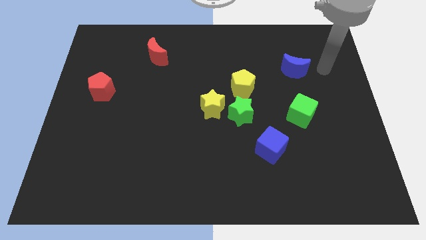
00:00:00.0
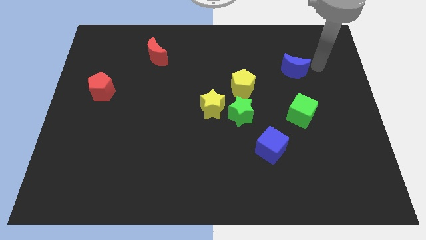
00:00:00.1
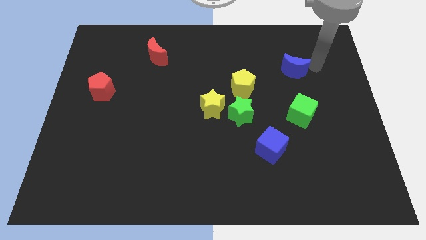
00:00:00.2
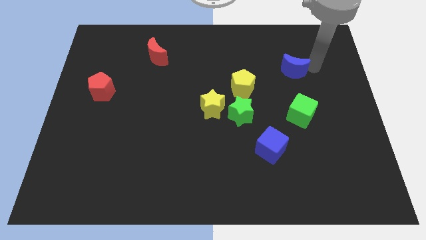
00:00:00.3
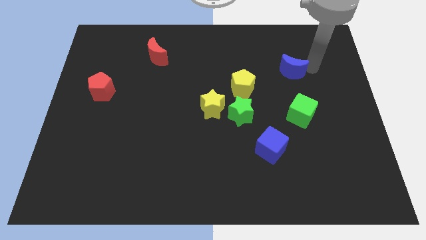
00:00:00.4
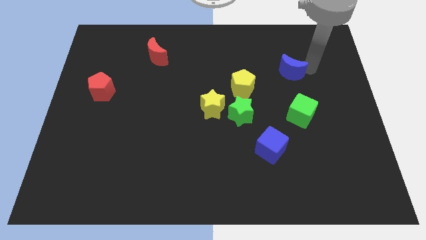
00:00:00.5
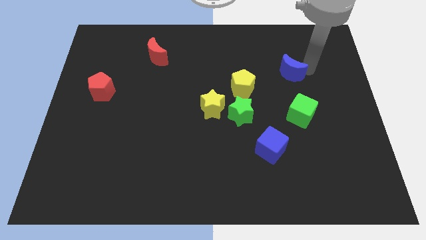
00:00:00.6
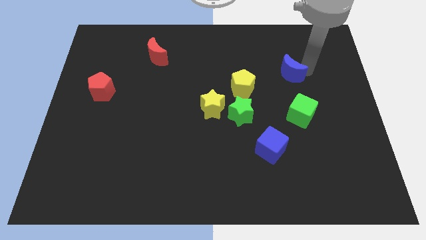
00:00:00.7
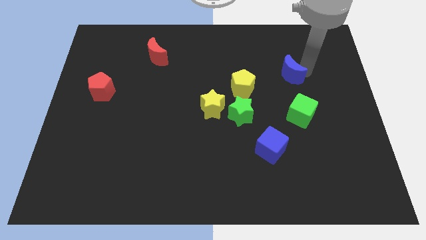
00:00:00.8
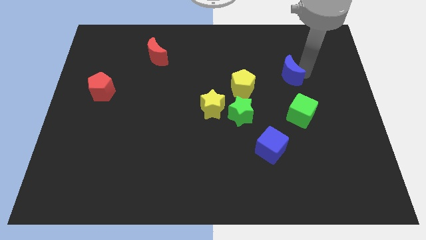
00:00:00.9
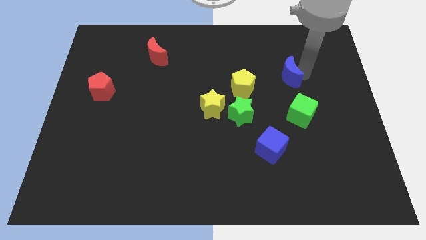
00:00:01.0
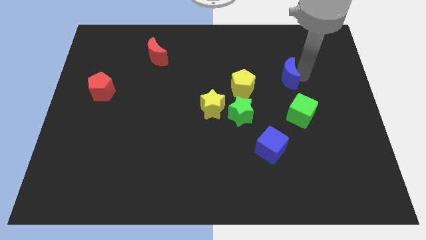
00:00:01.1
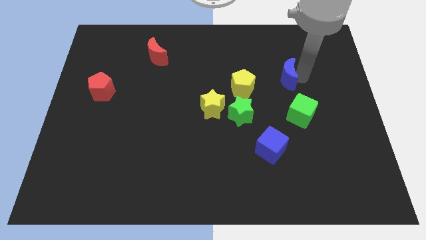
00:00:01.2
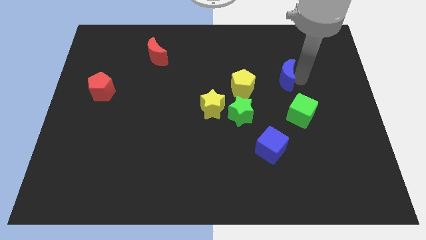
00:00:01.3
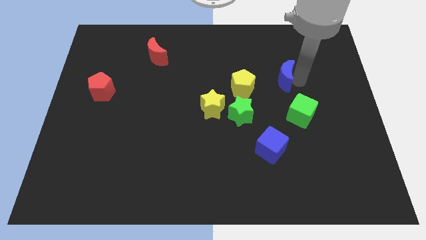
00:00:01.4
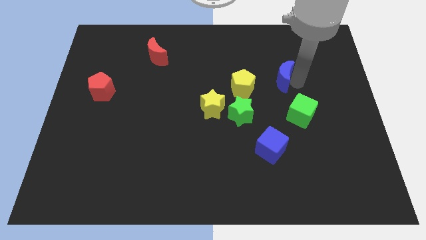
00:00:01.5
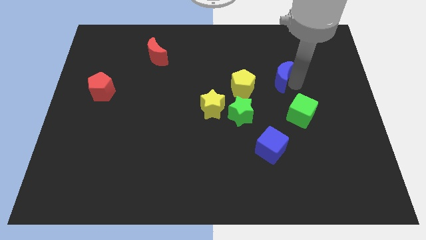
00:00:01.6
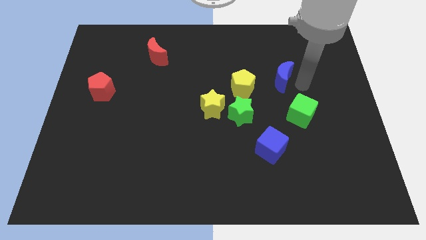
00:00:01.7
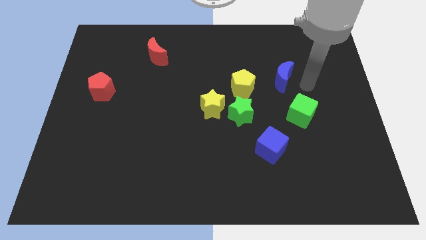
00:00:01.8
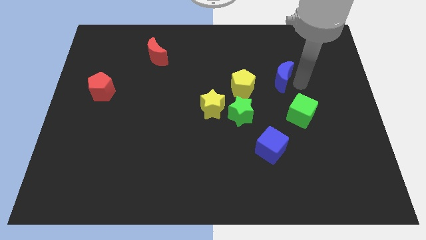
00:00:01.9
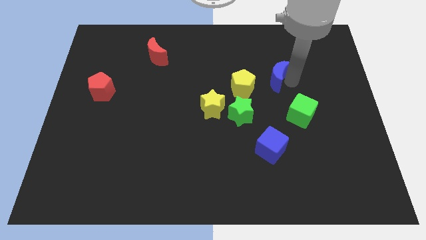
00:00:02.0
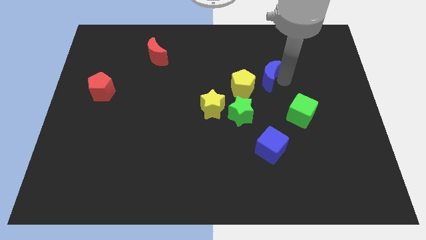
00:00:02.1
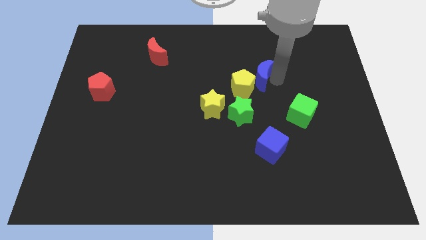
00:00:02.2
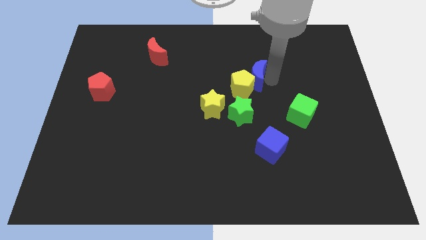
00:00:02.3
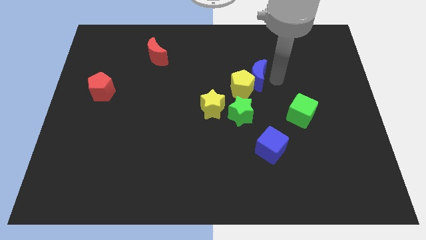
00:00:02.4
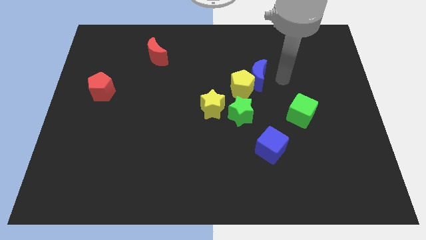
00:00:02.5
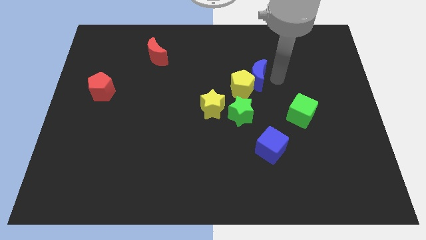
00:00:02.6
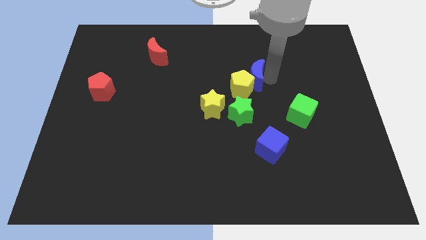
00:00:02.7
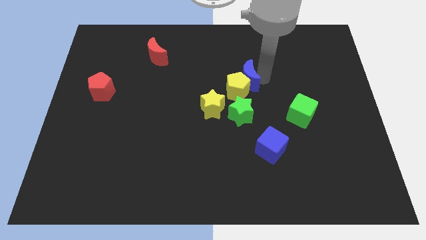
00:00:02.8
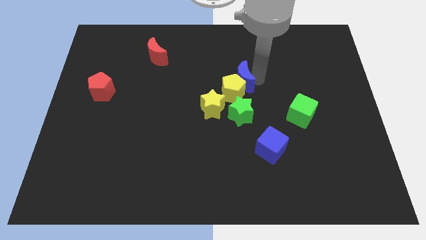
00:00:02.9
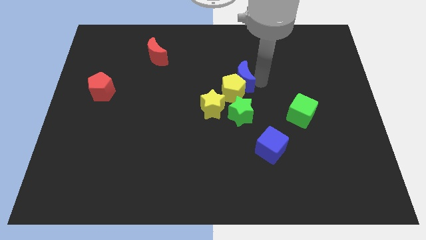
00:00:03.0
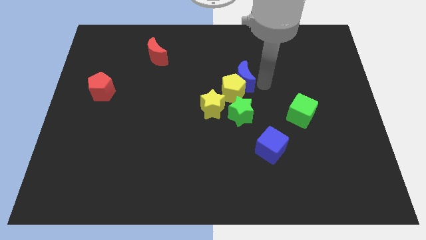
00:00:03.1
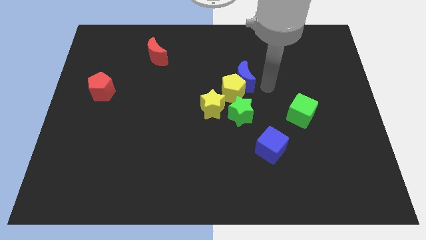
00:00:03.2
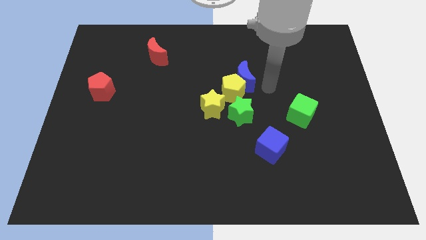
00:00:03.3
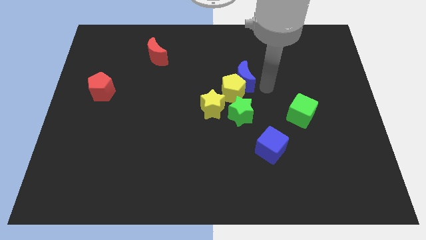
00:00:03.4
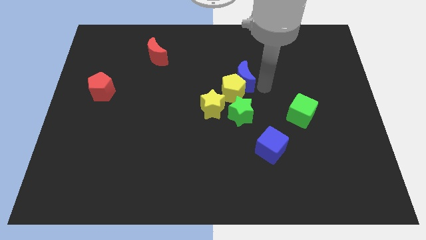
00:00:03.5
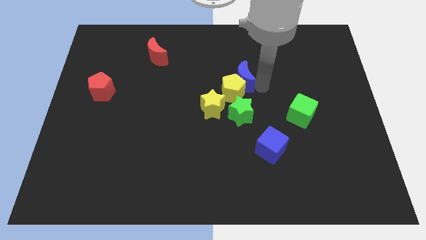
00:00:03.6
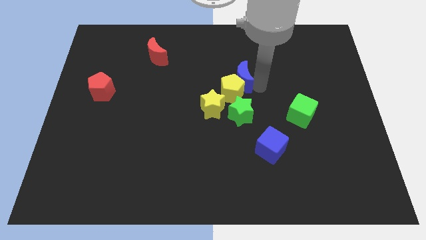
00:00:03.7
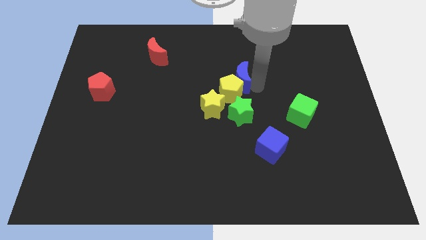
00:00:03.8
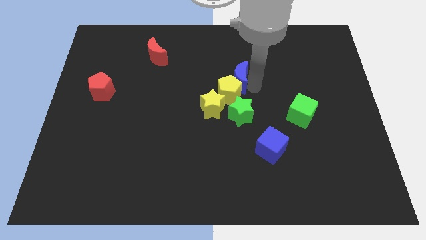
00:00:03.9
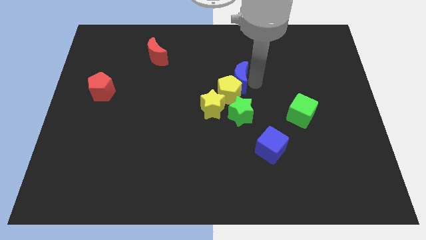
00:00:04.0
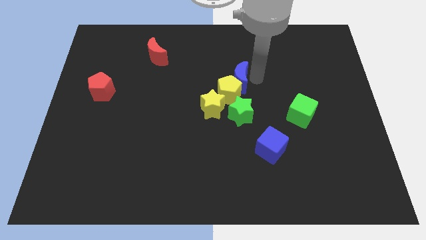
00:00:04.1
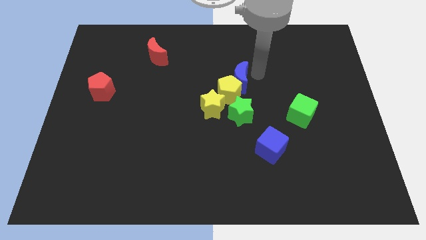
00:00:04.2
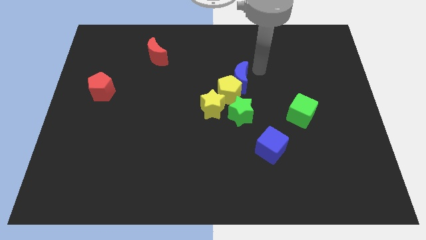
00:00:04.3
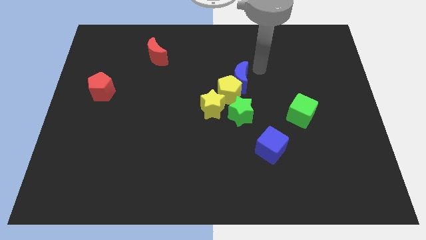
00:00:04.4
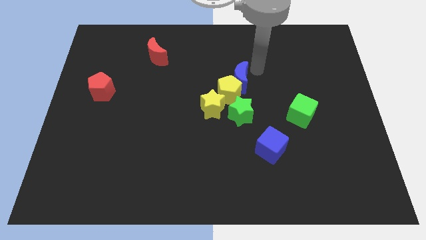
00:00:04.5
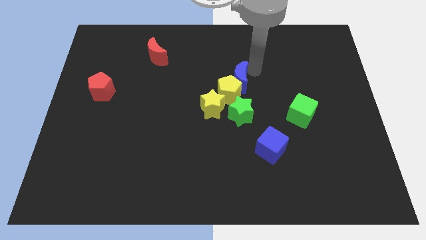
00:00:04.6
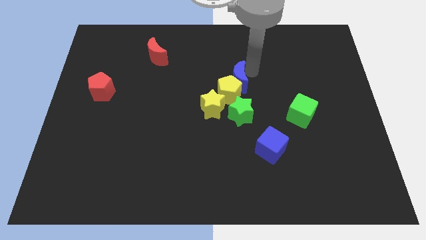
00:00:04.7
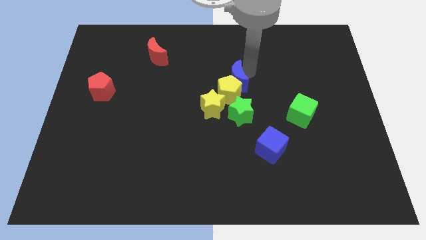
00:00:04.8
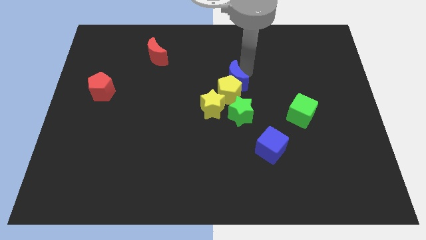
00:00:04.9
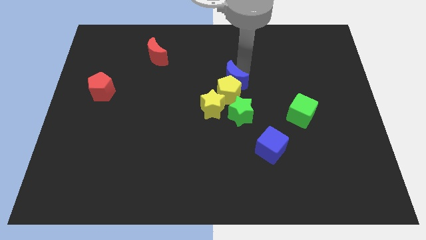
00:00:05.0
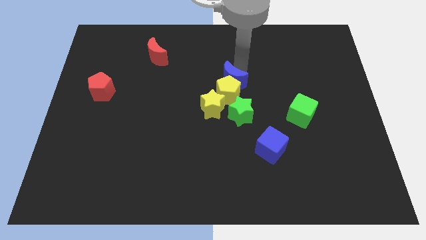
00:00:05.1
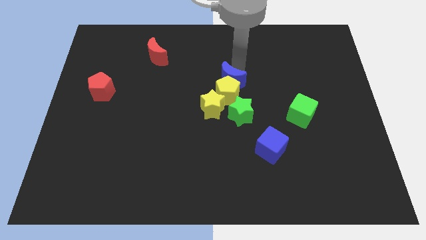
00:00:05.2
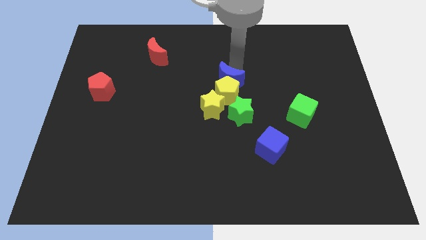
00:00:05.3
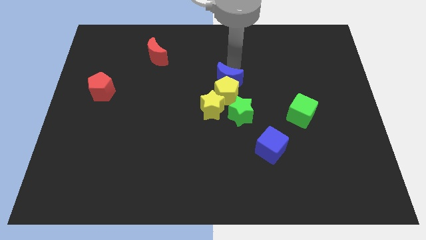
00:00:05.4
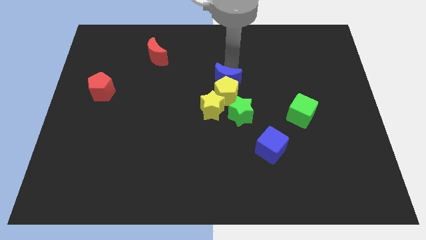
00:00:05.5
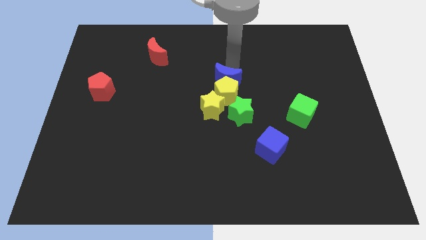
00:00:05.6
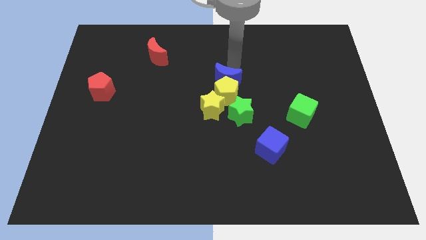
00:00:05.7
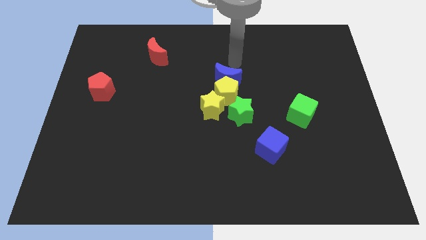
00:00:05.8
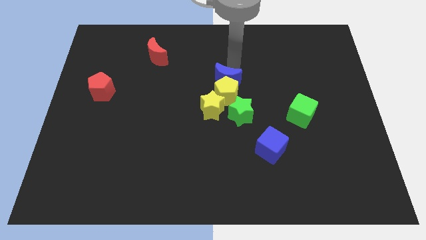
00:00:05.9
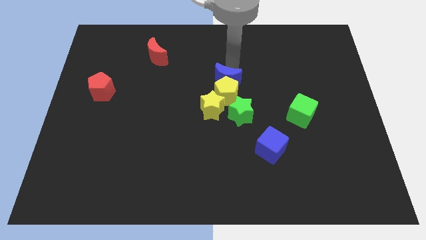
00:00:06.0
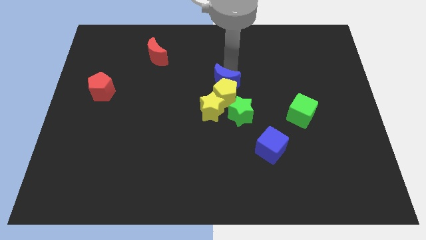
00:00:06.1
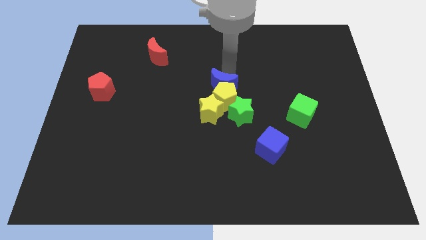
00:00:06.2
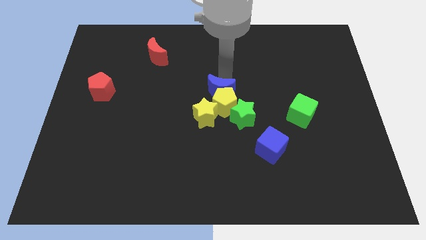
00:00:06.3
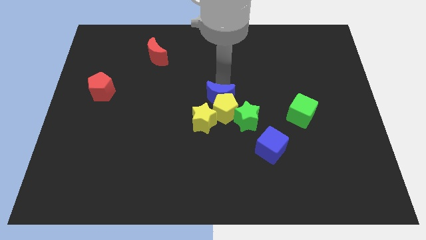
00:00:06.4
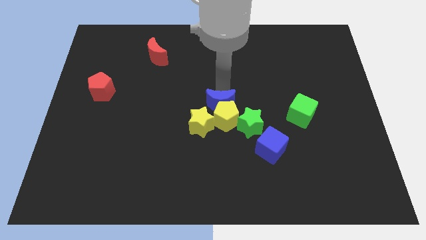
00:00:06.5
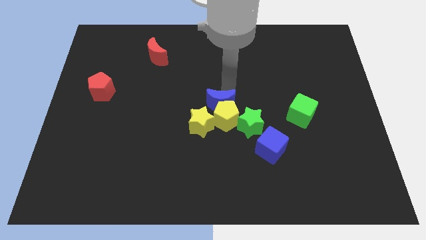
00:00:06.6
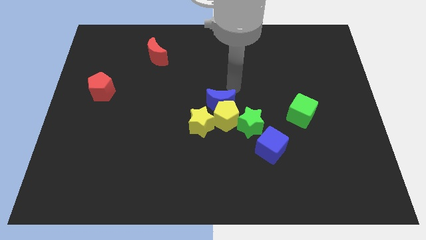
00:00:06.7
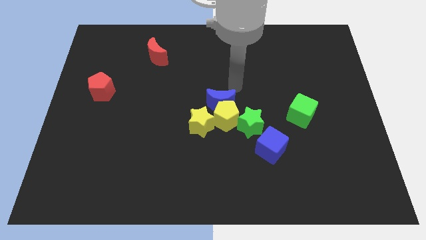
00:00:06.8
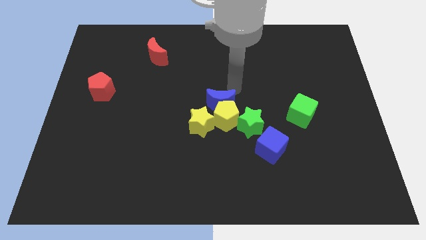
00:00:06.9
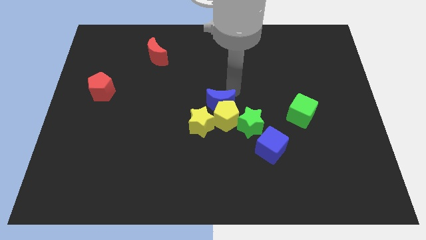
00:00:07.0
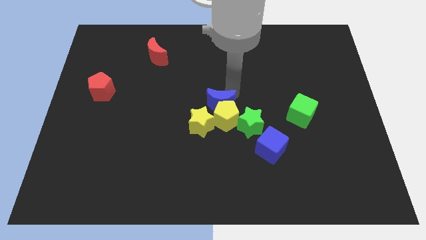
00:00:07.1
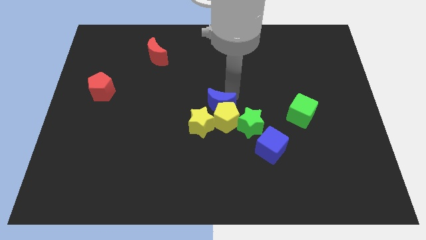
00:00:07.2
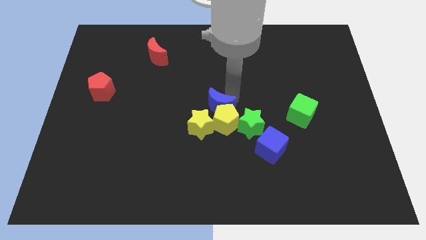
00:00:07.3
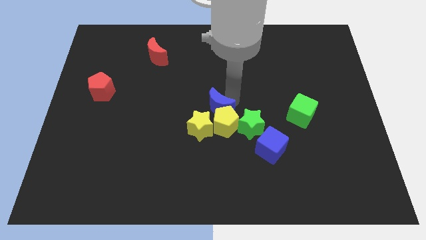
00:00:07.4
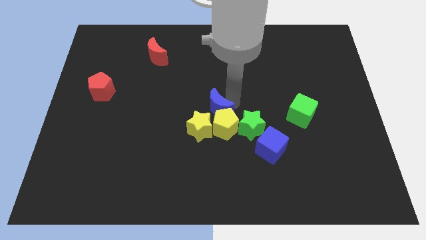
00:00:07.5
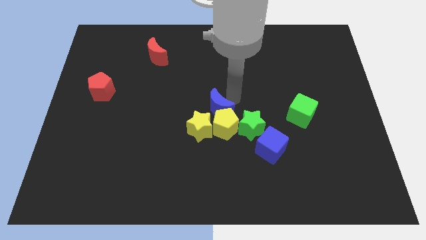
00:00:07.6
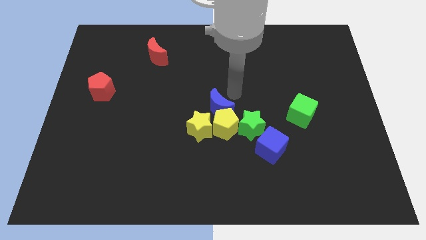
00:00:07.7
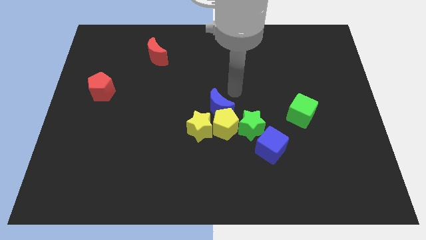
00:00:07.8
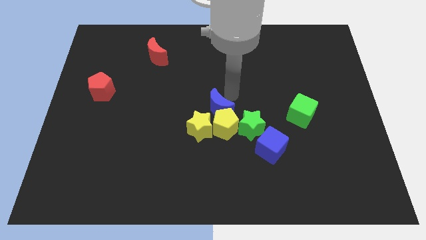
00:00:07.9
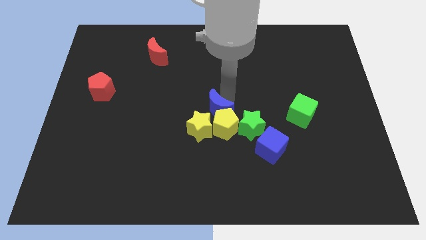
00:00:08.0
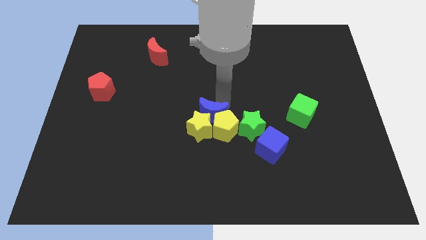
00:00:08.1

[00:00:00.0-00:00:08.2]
put the blue moon to the yellow star
